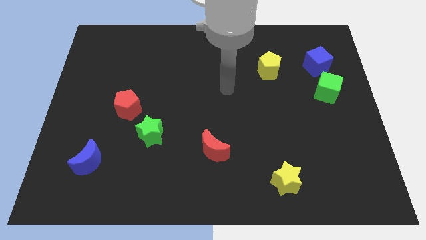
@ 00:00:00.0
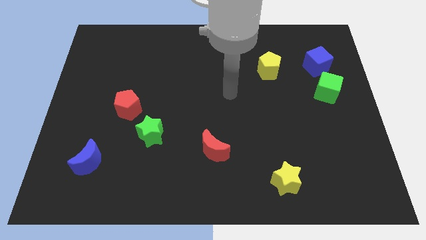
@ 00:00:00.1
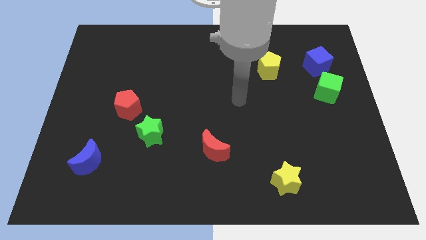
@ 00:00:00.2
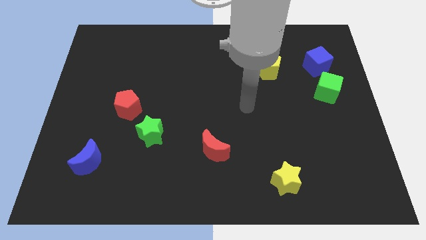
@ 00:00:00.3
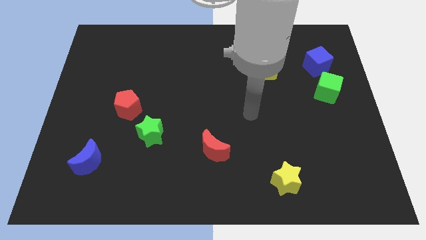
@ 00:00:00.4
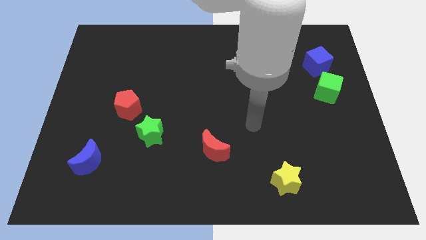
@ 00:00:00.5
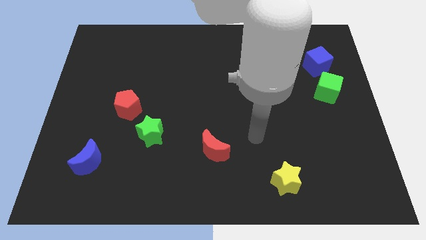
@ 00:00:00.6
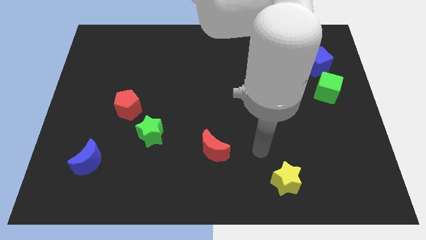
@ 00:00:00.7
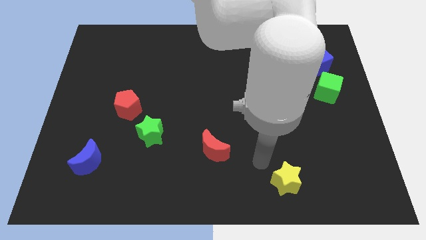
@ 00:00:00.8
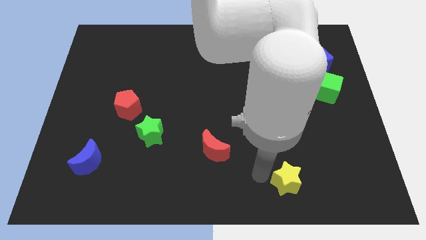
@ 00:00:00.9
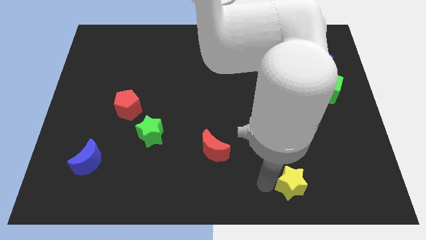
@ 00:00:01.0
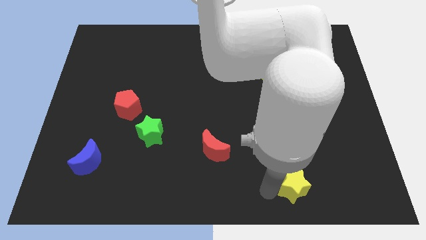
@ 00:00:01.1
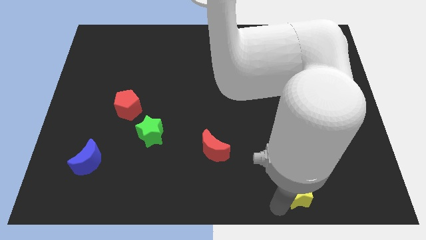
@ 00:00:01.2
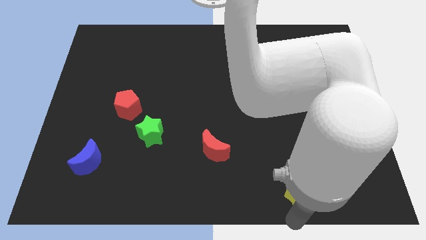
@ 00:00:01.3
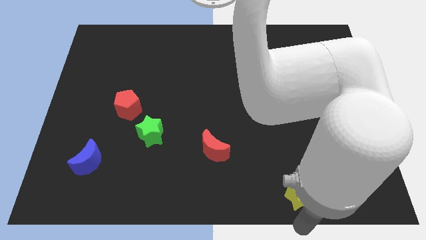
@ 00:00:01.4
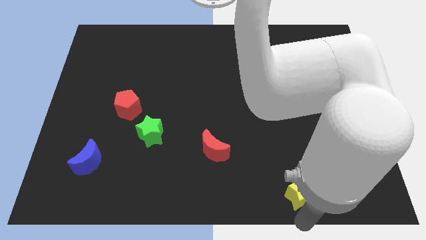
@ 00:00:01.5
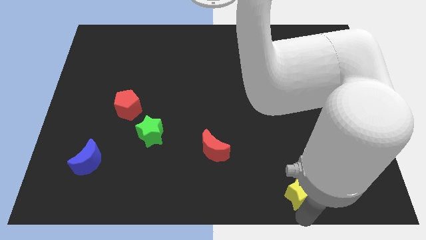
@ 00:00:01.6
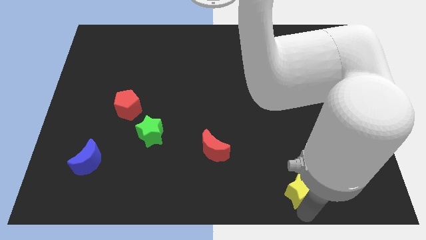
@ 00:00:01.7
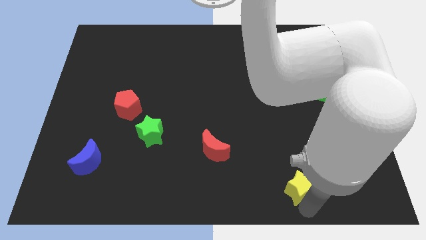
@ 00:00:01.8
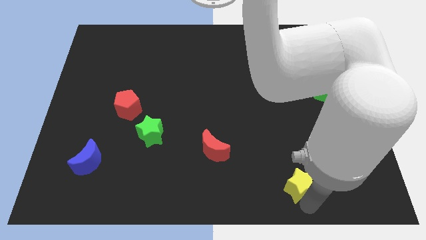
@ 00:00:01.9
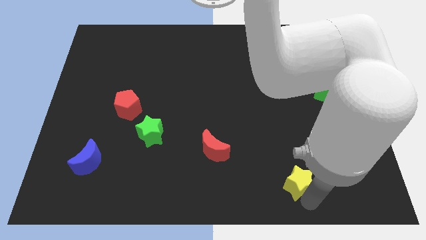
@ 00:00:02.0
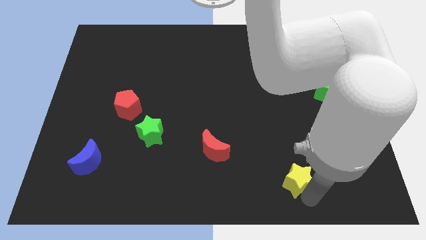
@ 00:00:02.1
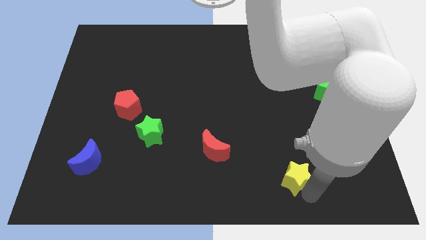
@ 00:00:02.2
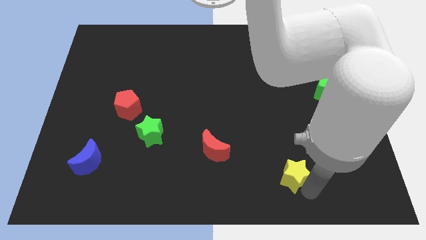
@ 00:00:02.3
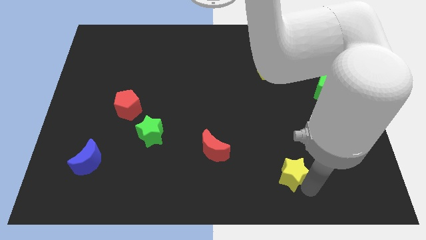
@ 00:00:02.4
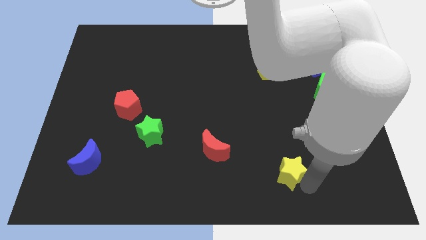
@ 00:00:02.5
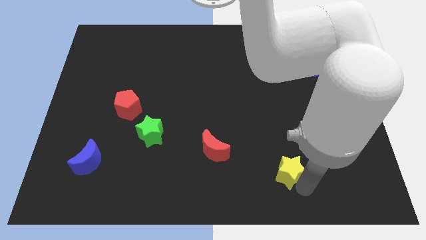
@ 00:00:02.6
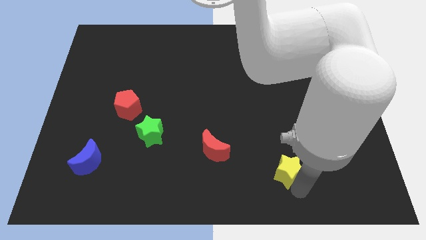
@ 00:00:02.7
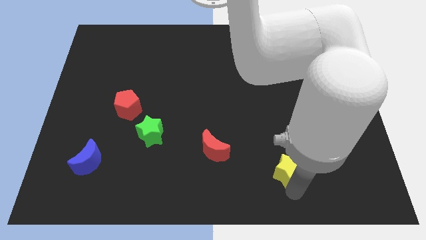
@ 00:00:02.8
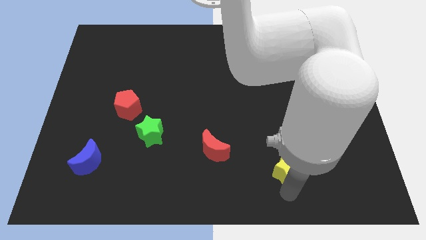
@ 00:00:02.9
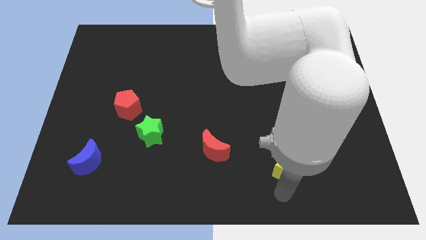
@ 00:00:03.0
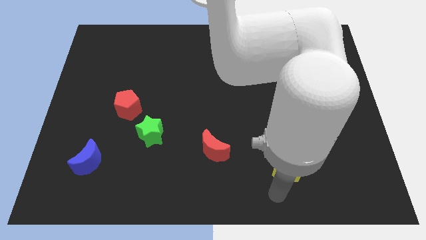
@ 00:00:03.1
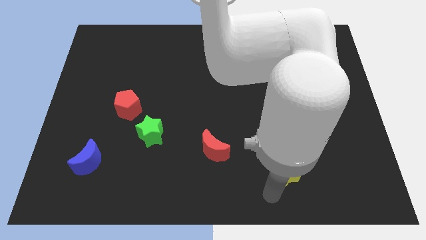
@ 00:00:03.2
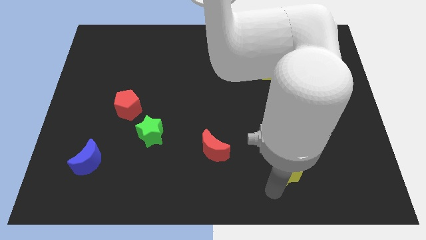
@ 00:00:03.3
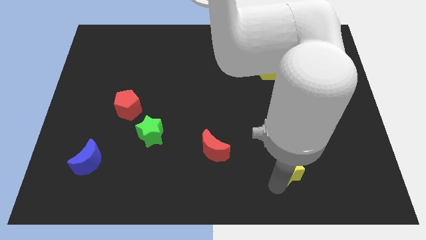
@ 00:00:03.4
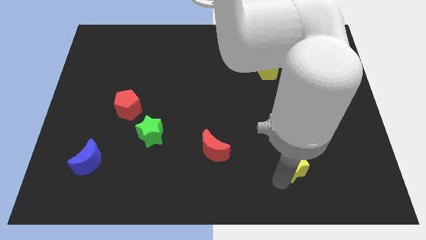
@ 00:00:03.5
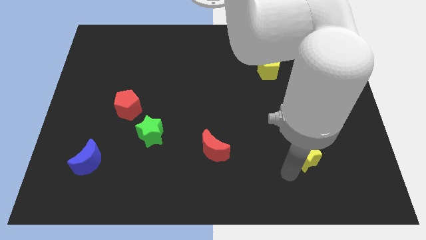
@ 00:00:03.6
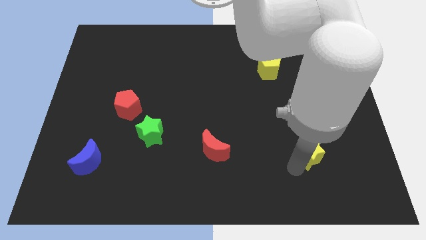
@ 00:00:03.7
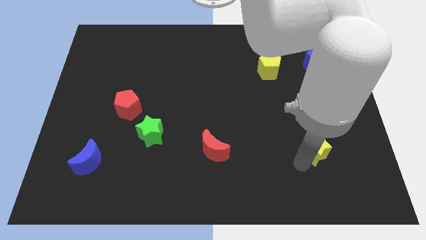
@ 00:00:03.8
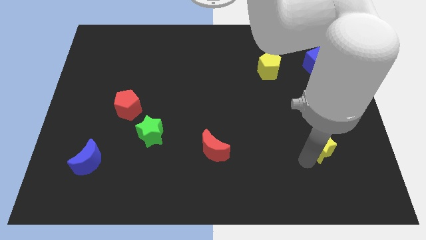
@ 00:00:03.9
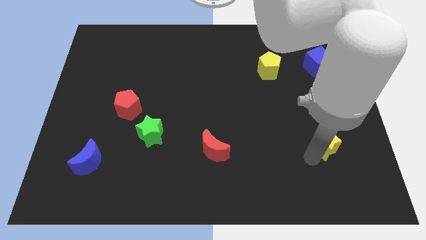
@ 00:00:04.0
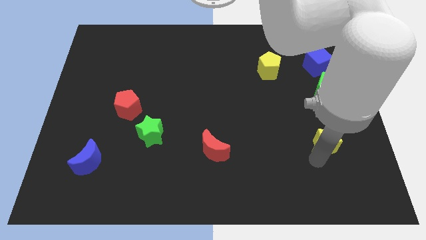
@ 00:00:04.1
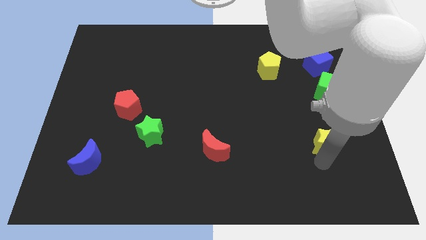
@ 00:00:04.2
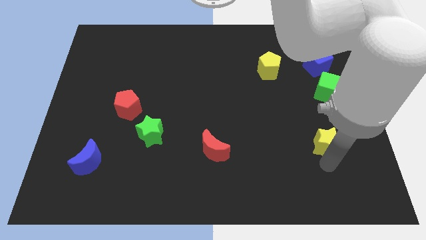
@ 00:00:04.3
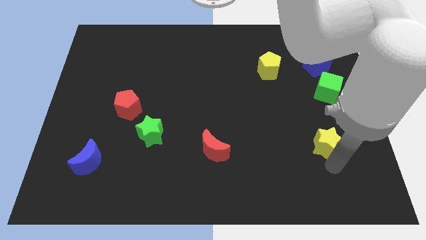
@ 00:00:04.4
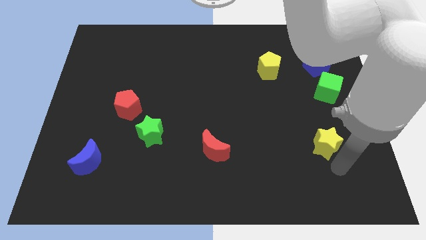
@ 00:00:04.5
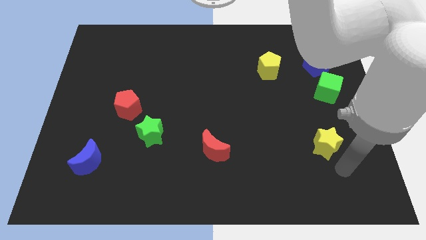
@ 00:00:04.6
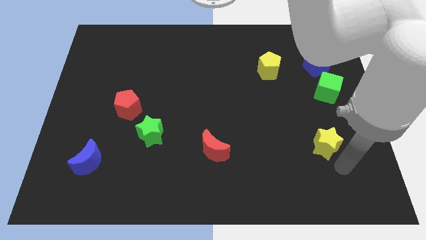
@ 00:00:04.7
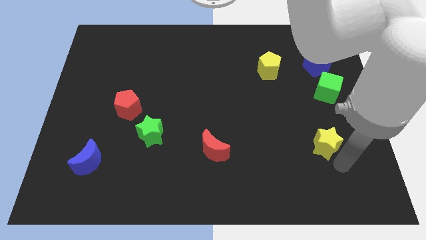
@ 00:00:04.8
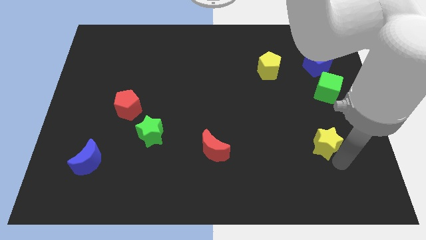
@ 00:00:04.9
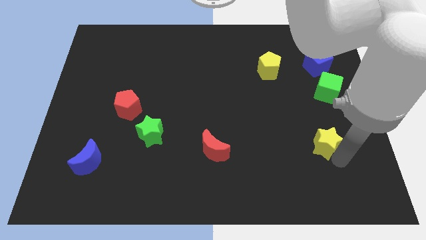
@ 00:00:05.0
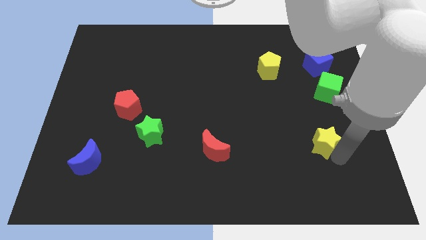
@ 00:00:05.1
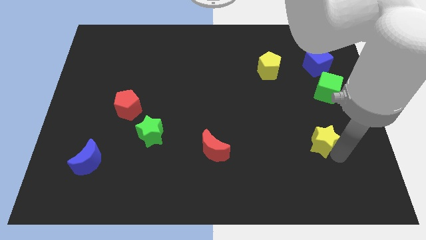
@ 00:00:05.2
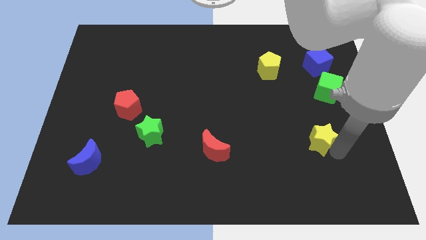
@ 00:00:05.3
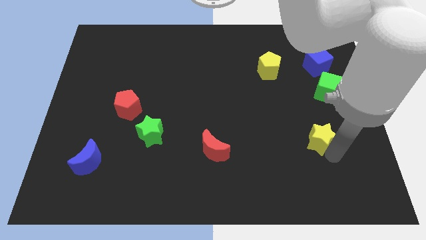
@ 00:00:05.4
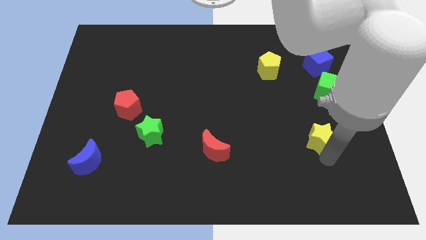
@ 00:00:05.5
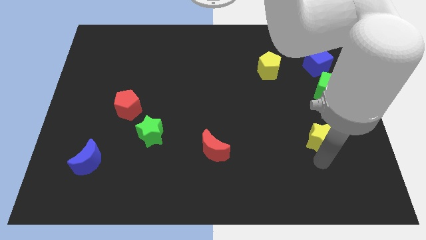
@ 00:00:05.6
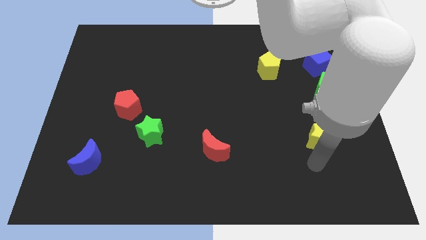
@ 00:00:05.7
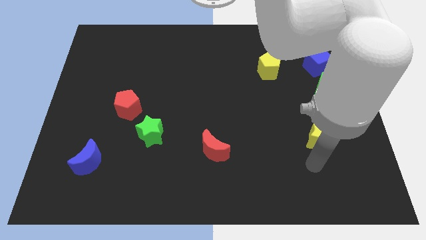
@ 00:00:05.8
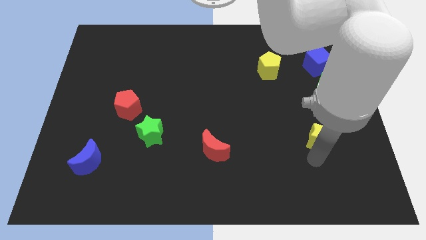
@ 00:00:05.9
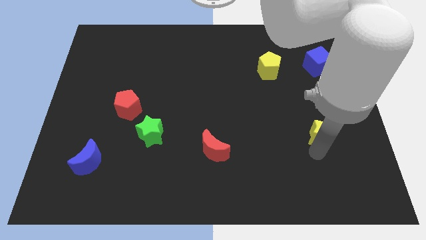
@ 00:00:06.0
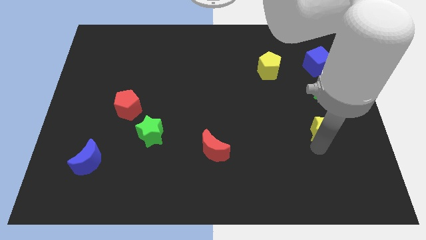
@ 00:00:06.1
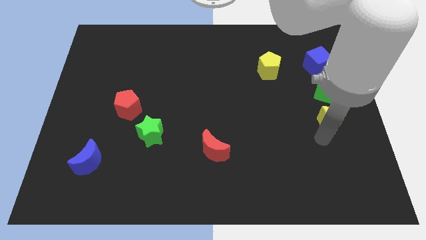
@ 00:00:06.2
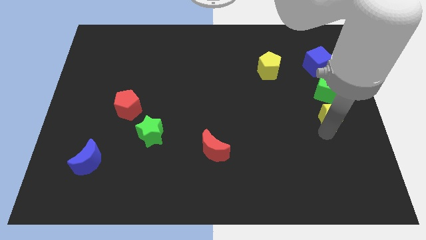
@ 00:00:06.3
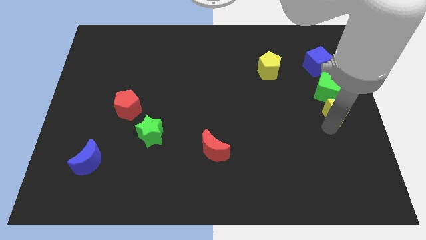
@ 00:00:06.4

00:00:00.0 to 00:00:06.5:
put the yellow star to the bottom side of the blue cube

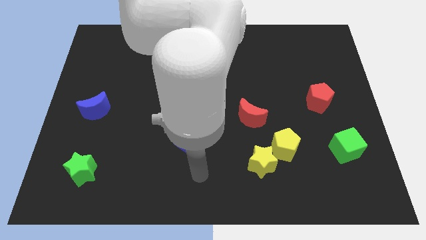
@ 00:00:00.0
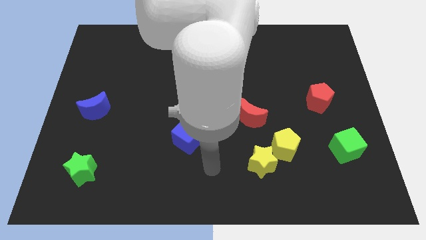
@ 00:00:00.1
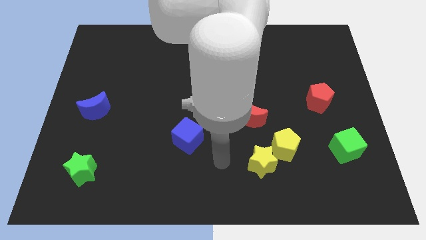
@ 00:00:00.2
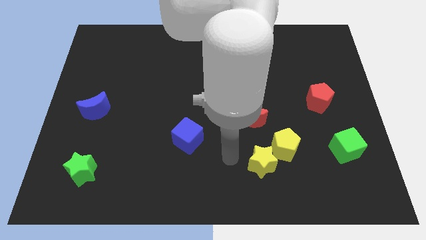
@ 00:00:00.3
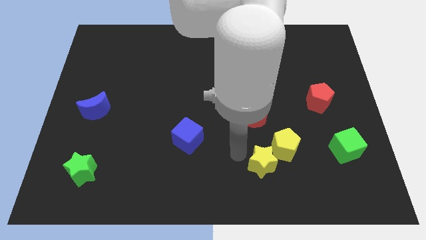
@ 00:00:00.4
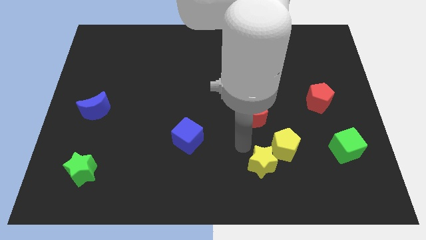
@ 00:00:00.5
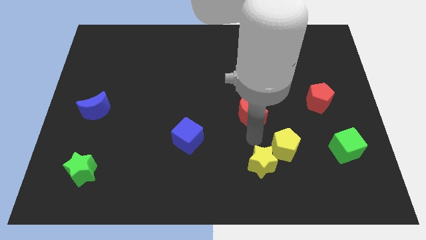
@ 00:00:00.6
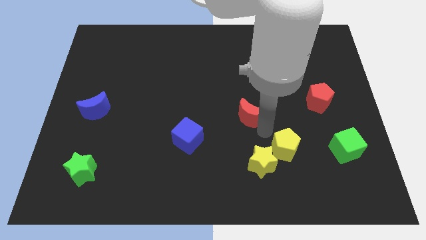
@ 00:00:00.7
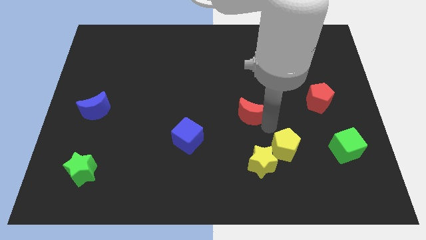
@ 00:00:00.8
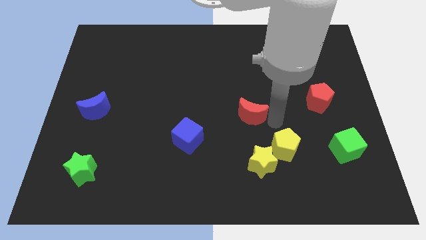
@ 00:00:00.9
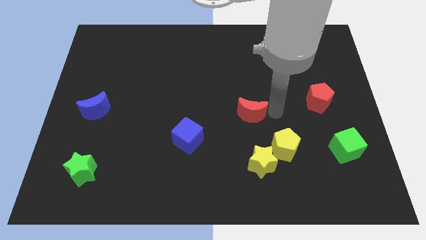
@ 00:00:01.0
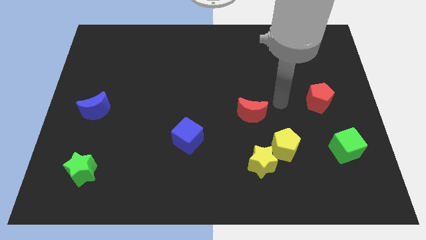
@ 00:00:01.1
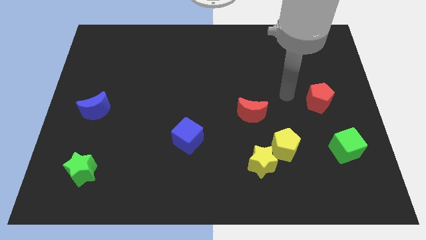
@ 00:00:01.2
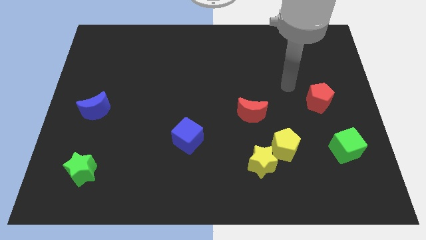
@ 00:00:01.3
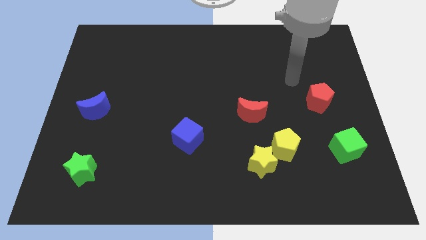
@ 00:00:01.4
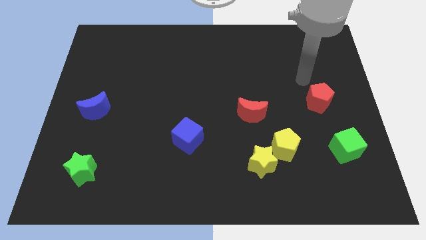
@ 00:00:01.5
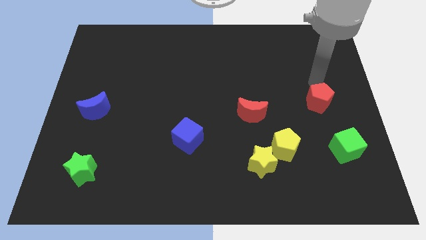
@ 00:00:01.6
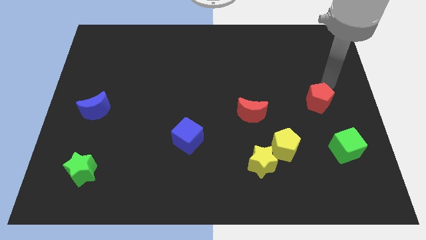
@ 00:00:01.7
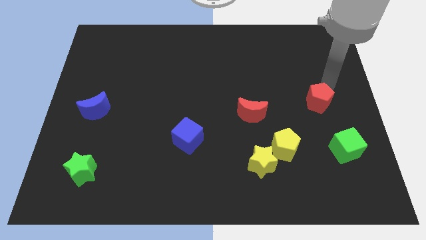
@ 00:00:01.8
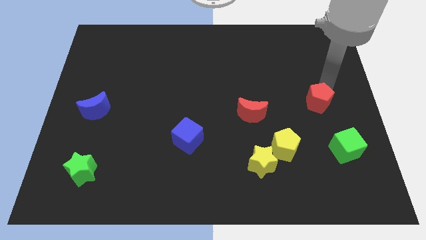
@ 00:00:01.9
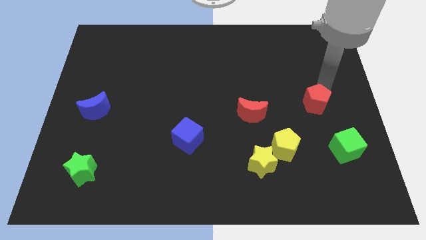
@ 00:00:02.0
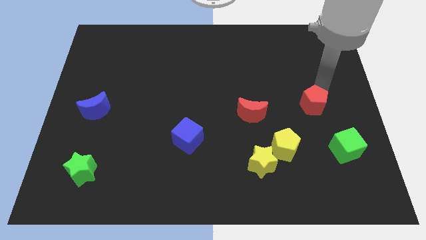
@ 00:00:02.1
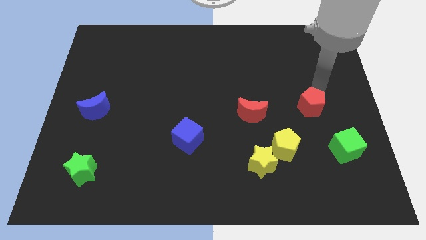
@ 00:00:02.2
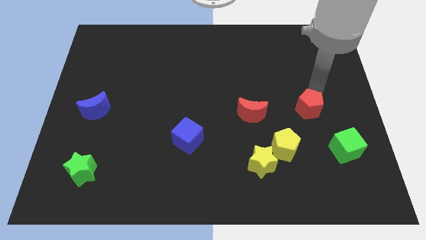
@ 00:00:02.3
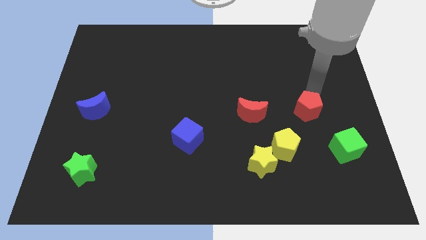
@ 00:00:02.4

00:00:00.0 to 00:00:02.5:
move the red pentagon to the top right side of the yellow pentagon
